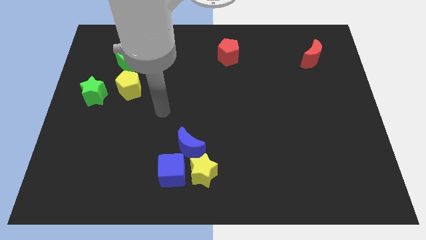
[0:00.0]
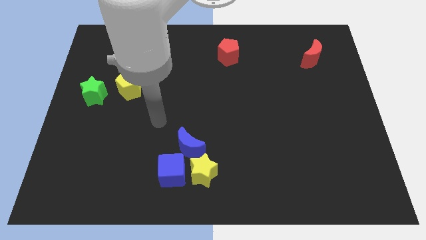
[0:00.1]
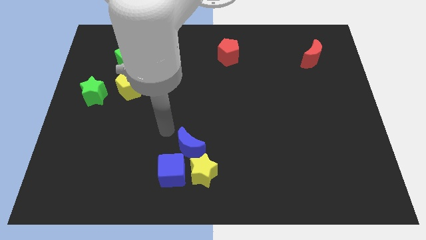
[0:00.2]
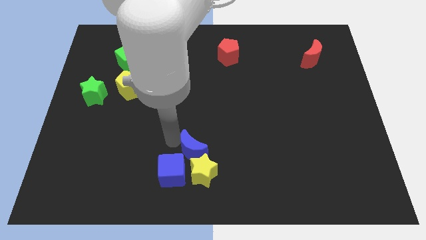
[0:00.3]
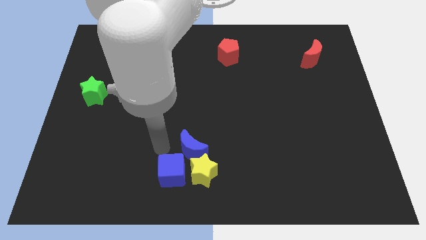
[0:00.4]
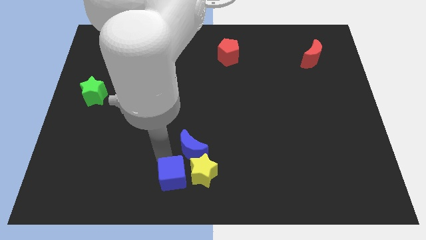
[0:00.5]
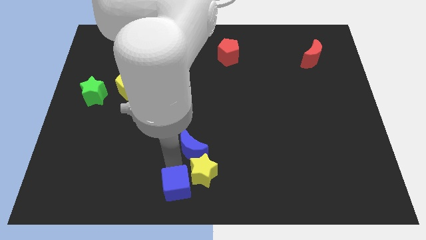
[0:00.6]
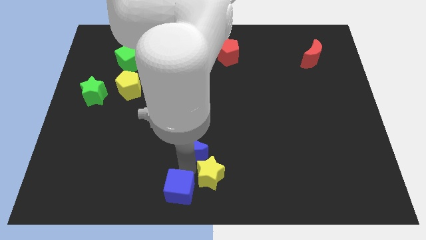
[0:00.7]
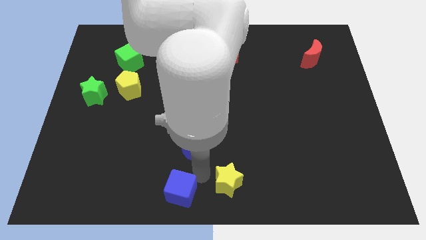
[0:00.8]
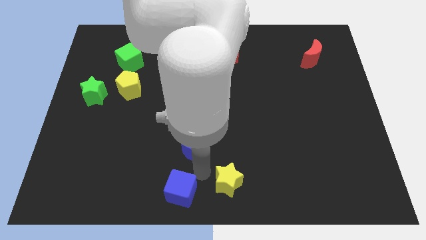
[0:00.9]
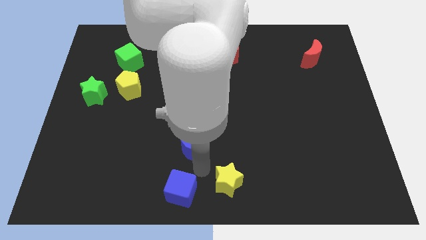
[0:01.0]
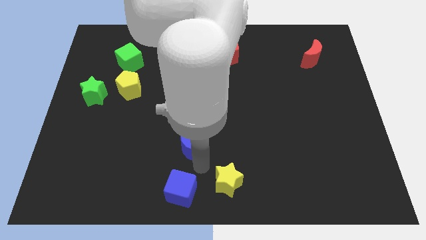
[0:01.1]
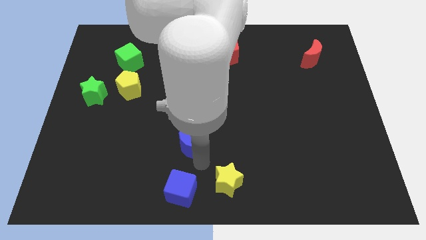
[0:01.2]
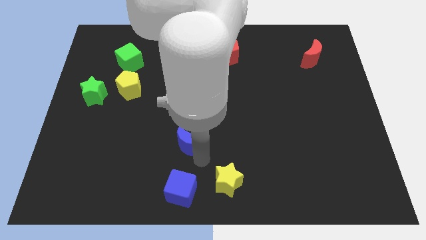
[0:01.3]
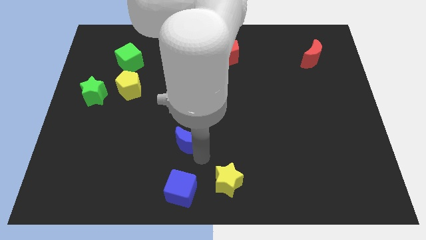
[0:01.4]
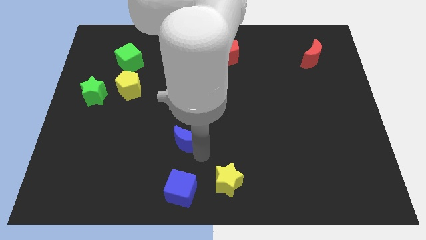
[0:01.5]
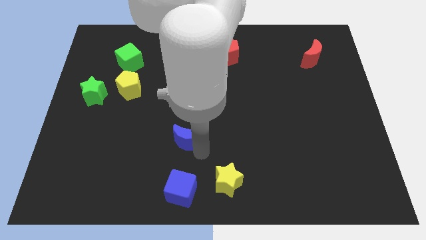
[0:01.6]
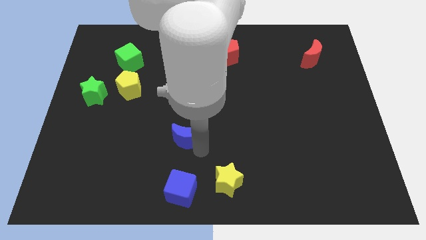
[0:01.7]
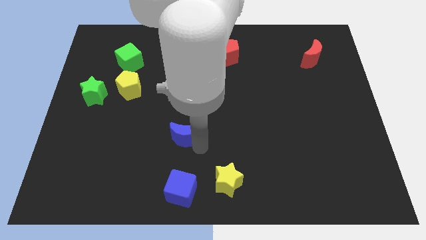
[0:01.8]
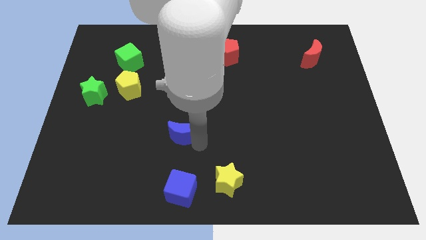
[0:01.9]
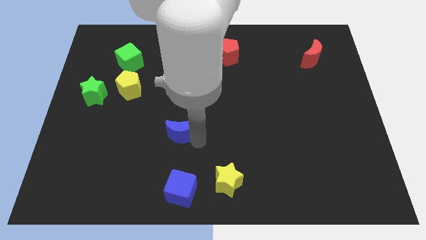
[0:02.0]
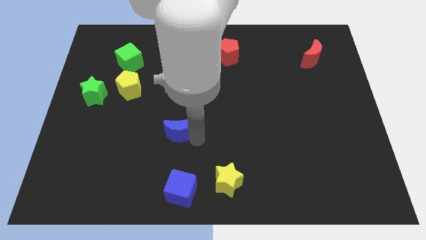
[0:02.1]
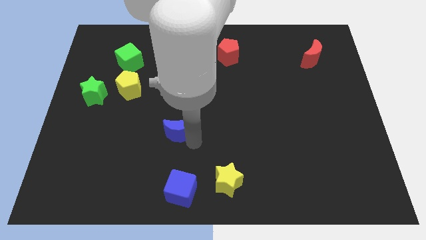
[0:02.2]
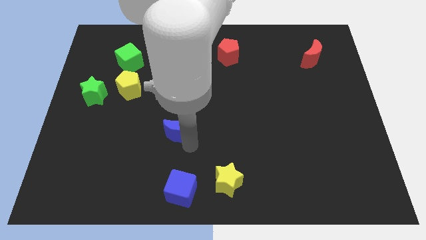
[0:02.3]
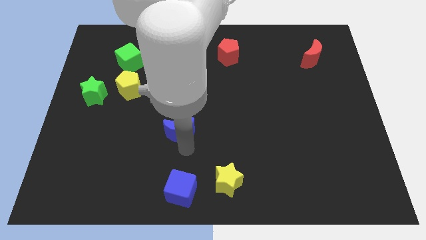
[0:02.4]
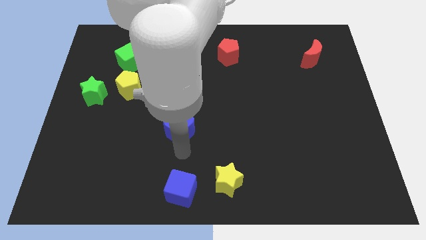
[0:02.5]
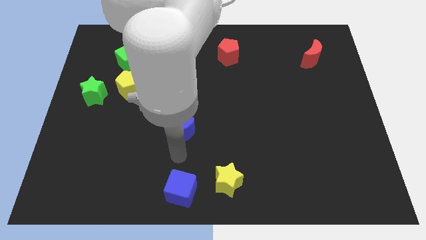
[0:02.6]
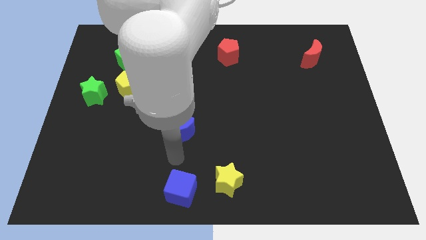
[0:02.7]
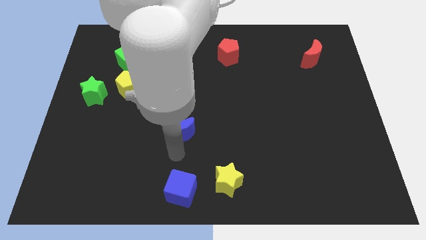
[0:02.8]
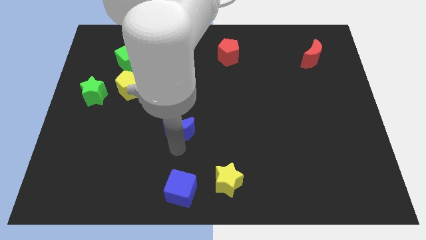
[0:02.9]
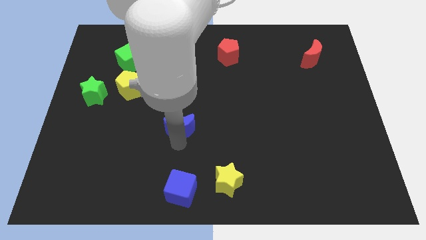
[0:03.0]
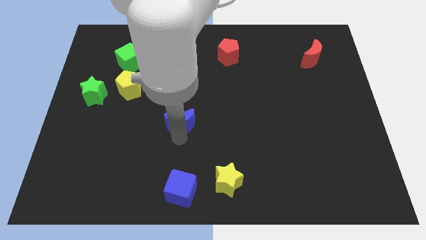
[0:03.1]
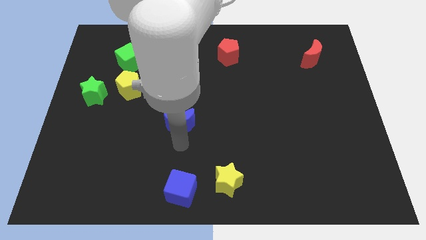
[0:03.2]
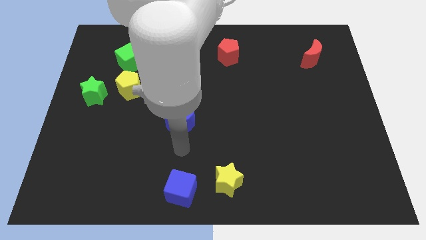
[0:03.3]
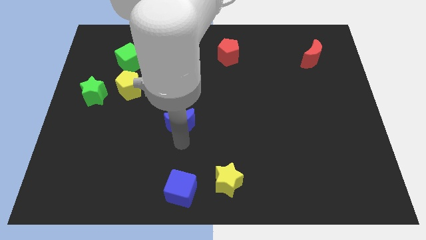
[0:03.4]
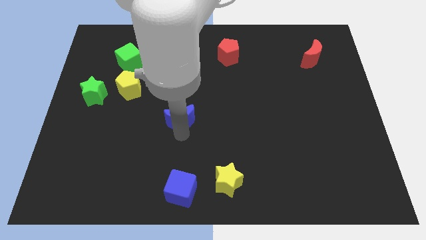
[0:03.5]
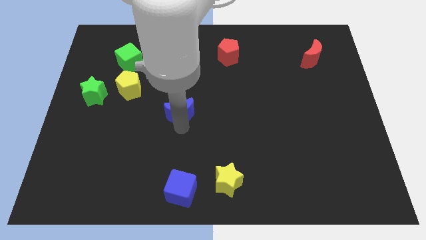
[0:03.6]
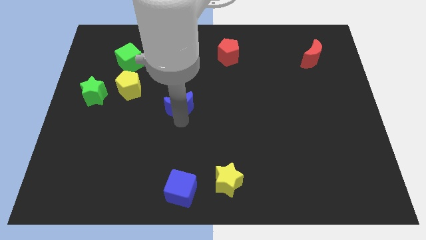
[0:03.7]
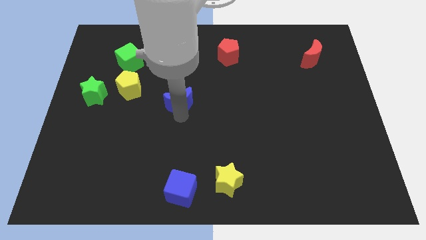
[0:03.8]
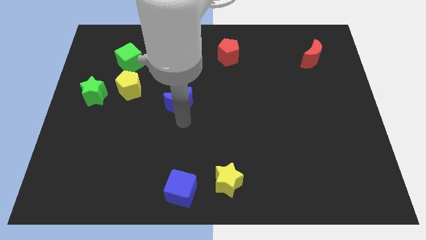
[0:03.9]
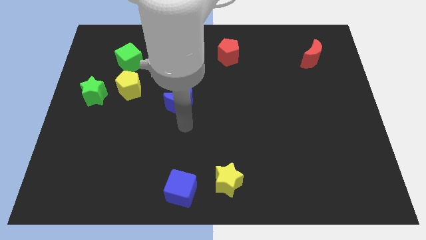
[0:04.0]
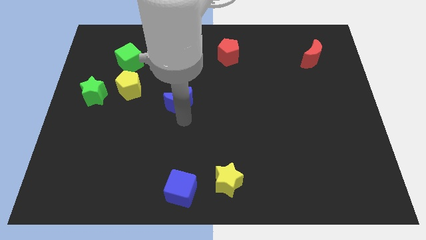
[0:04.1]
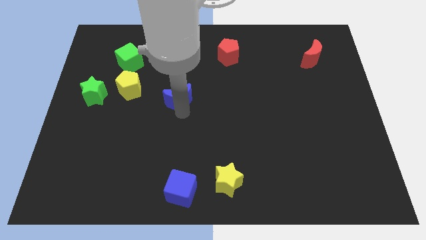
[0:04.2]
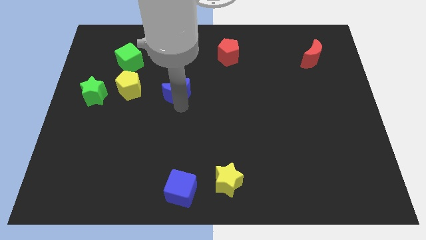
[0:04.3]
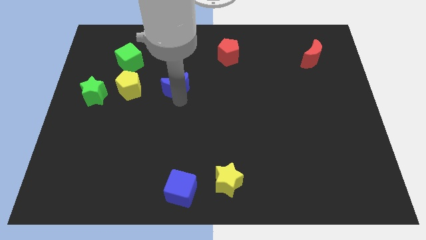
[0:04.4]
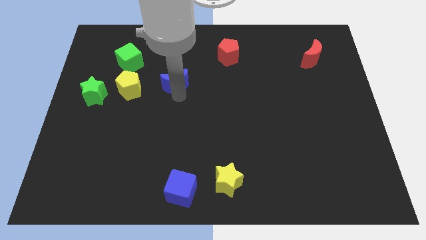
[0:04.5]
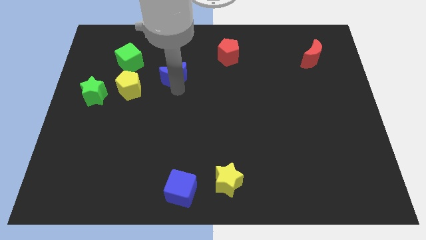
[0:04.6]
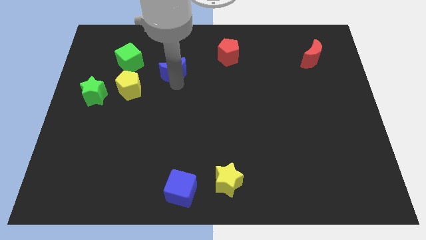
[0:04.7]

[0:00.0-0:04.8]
slide the blue moon just right of the green cube

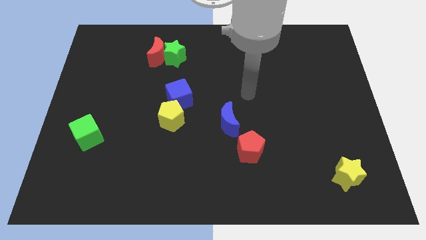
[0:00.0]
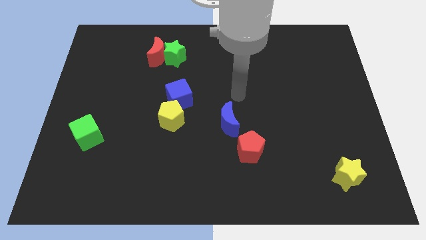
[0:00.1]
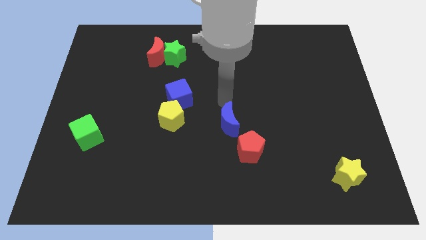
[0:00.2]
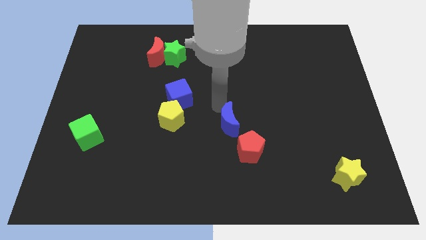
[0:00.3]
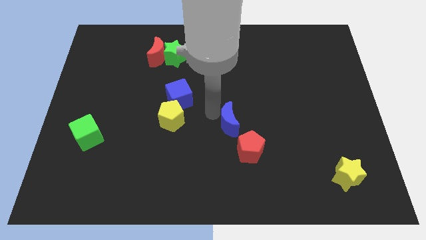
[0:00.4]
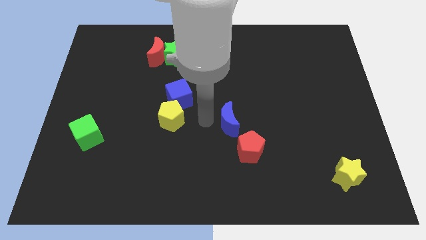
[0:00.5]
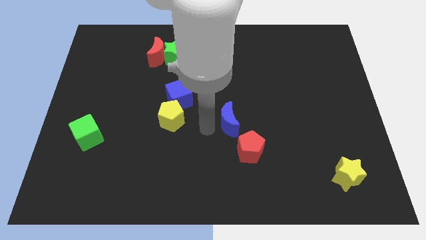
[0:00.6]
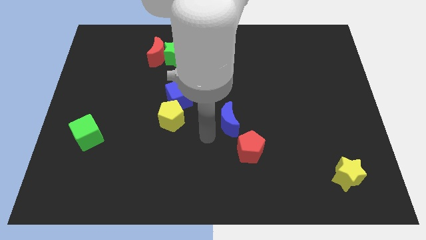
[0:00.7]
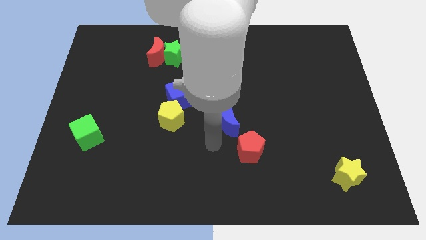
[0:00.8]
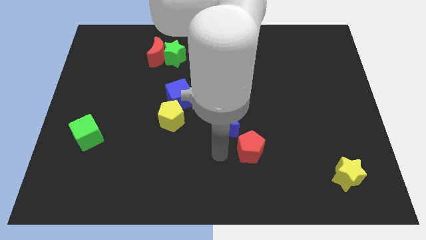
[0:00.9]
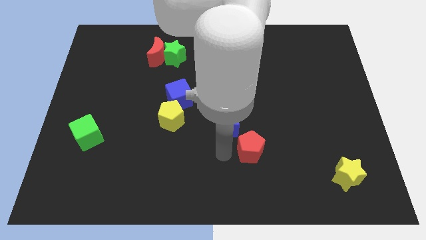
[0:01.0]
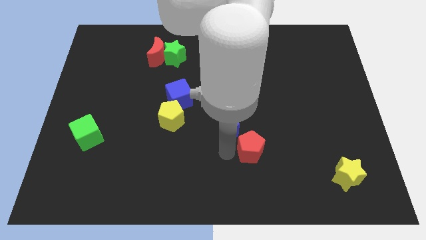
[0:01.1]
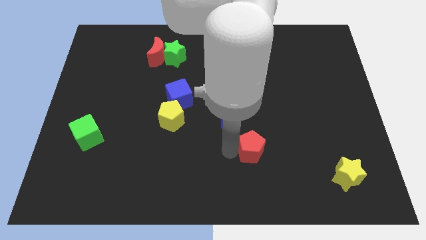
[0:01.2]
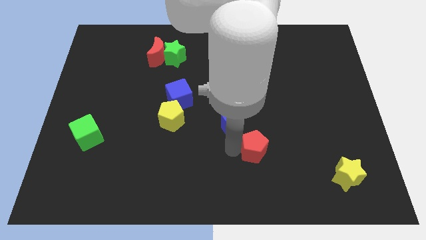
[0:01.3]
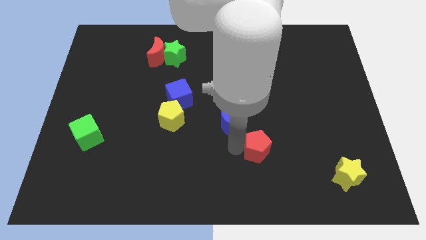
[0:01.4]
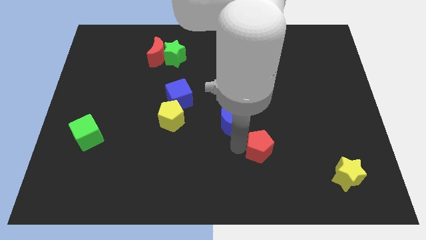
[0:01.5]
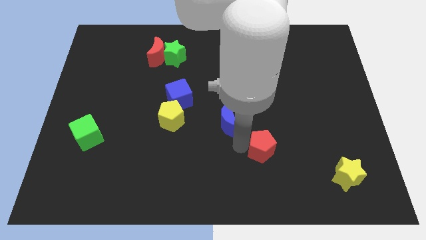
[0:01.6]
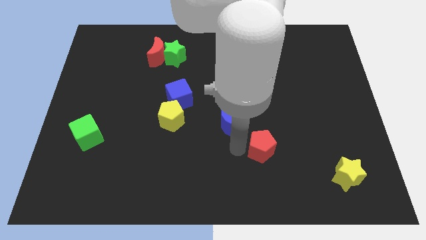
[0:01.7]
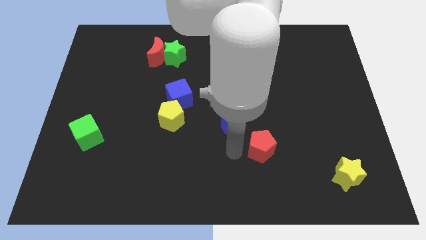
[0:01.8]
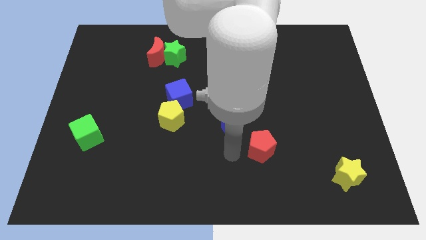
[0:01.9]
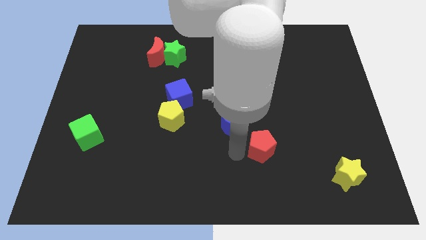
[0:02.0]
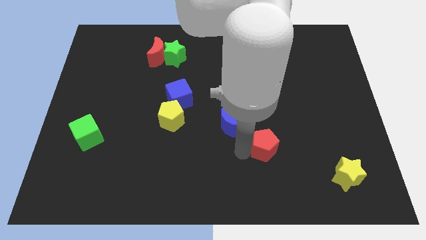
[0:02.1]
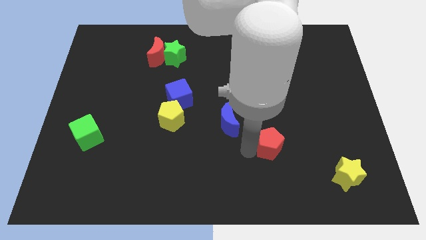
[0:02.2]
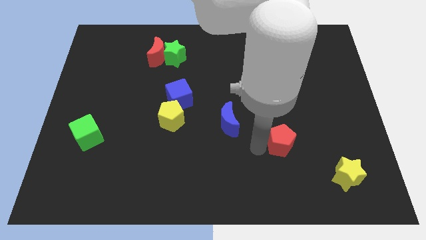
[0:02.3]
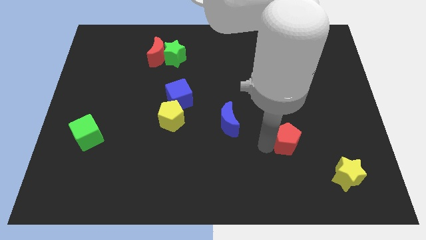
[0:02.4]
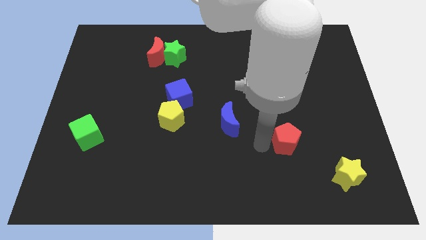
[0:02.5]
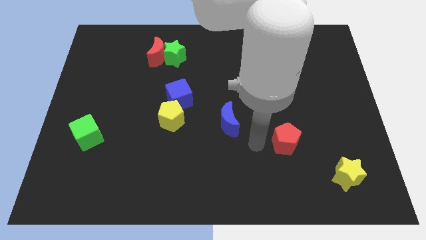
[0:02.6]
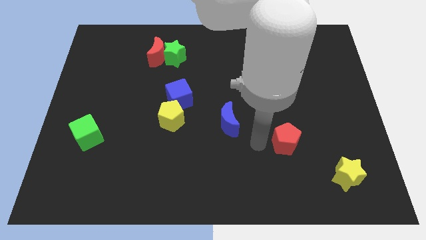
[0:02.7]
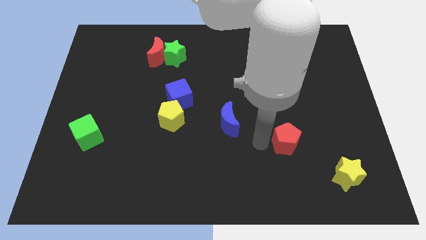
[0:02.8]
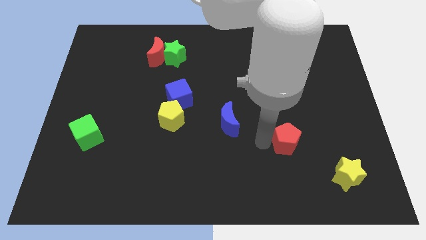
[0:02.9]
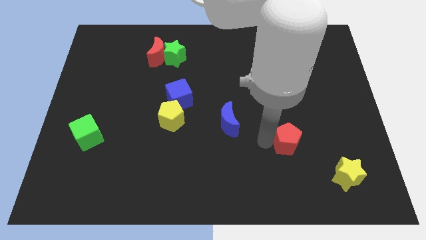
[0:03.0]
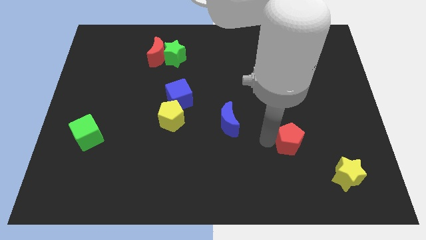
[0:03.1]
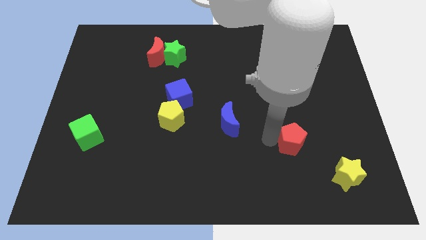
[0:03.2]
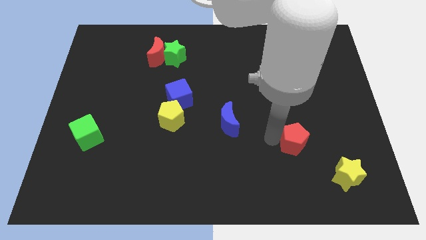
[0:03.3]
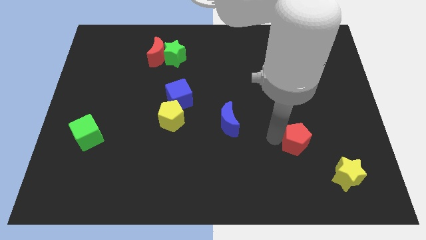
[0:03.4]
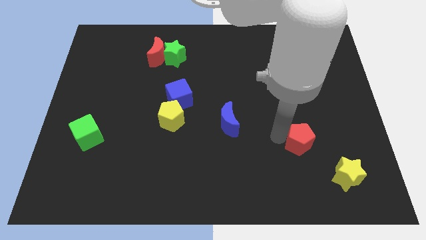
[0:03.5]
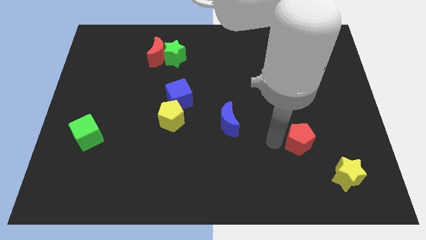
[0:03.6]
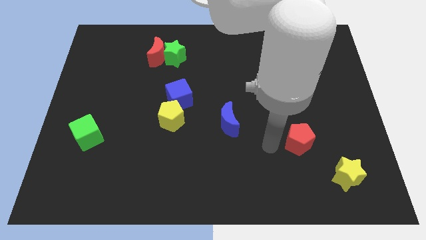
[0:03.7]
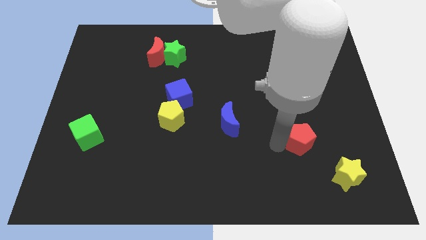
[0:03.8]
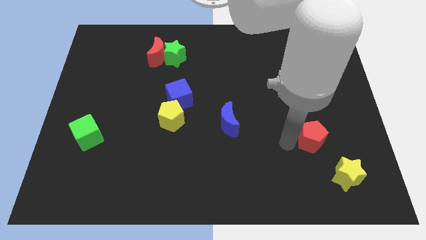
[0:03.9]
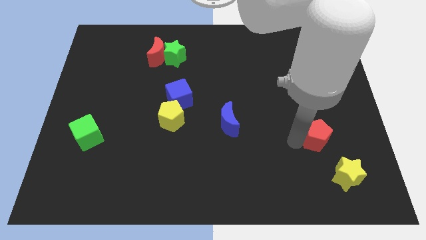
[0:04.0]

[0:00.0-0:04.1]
push the red pentagon above the yellow star
